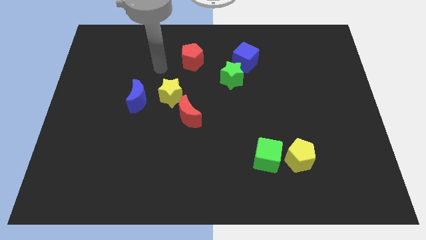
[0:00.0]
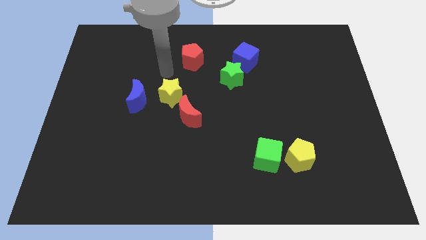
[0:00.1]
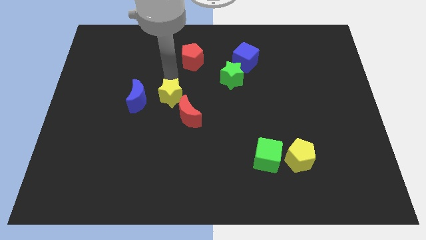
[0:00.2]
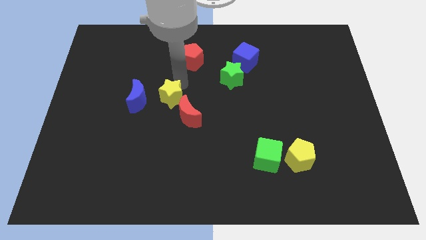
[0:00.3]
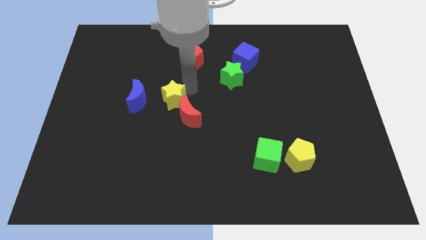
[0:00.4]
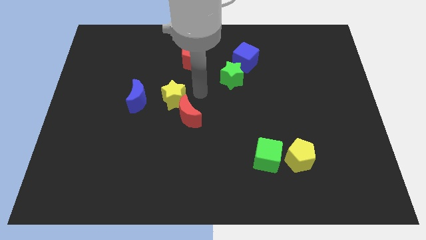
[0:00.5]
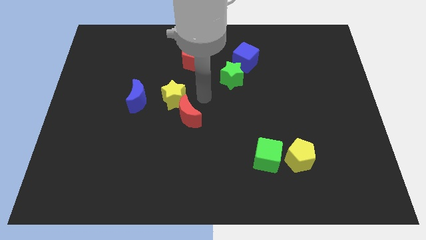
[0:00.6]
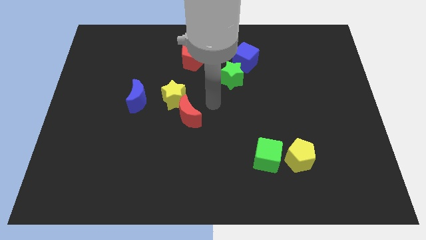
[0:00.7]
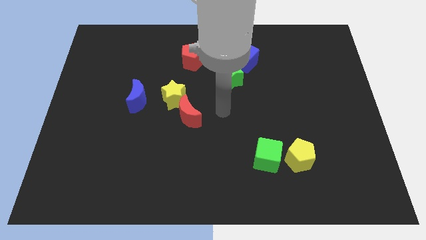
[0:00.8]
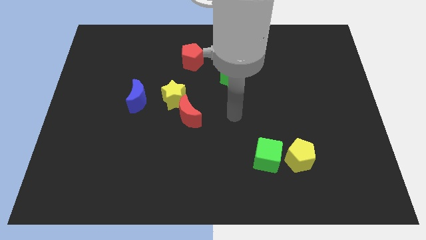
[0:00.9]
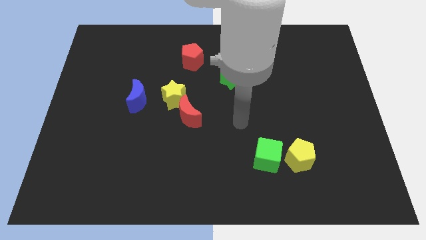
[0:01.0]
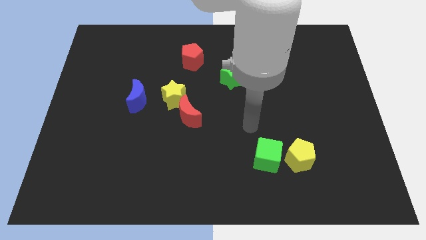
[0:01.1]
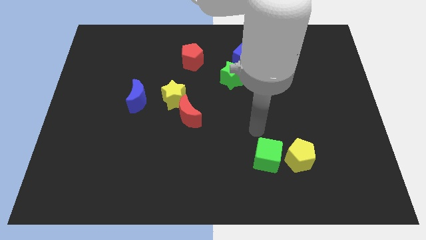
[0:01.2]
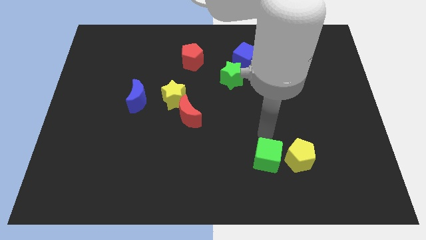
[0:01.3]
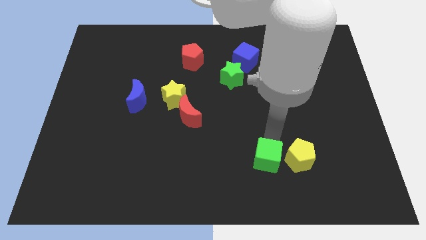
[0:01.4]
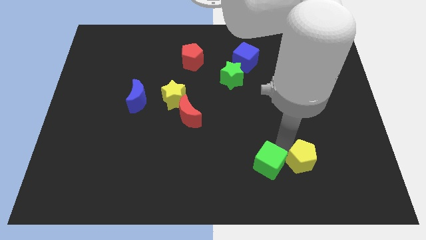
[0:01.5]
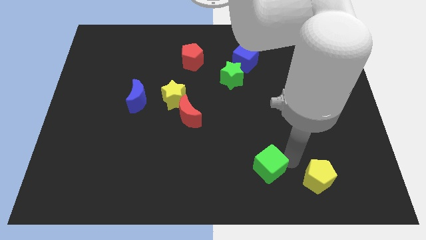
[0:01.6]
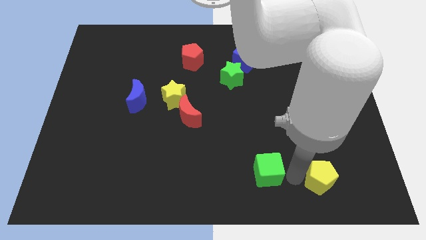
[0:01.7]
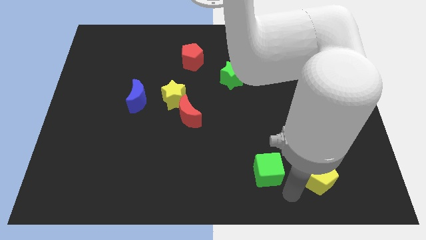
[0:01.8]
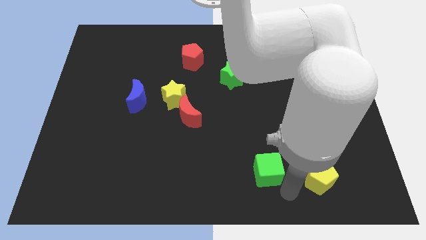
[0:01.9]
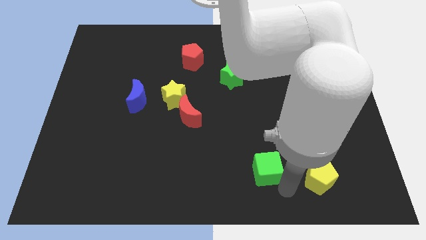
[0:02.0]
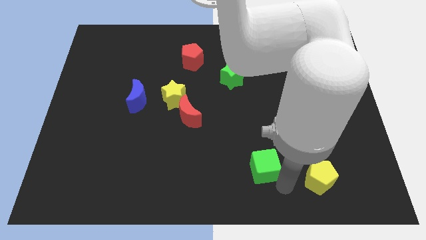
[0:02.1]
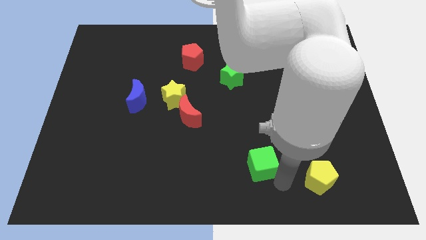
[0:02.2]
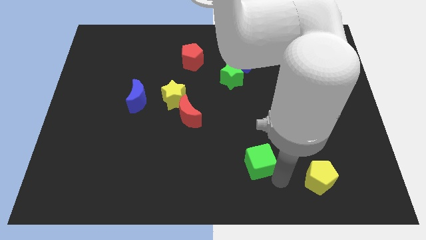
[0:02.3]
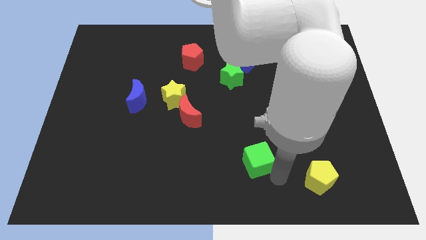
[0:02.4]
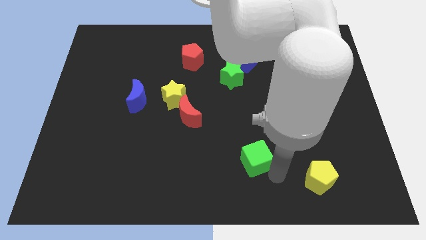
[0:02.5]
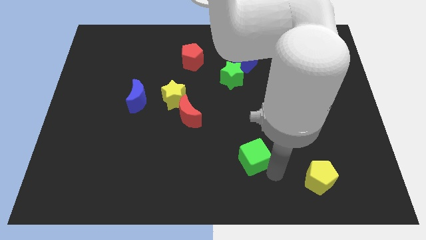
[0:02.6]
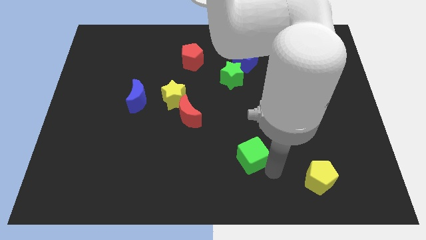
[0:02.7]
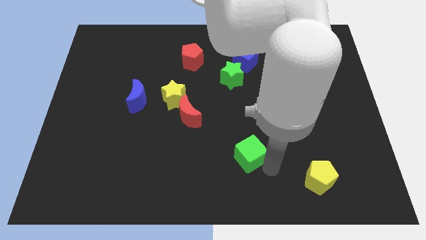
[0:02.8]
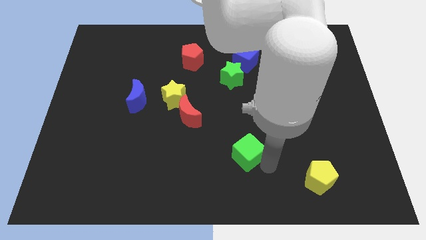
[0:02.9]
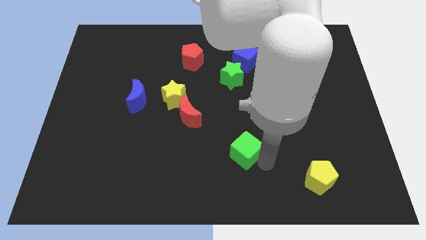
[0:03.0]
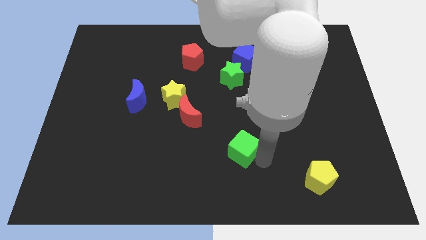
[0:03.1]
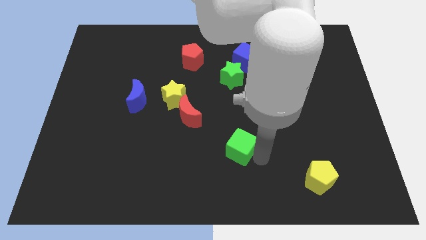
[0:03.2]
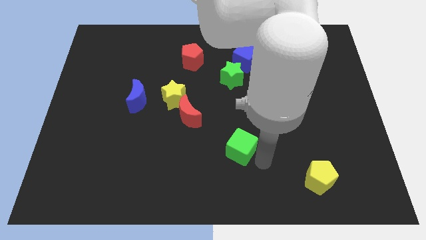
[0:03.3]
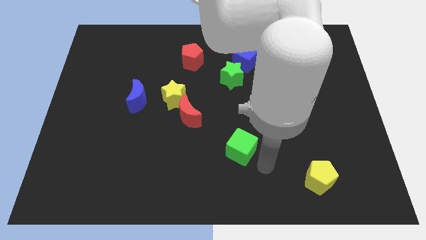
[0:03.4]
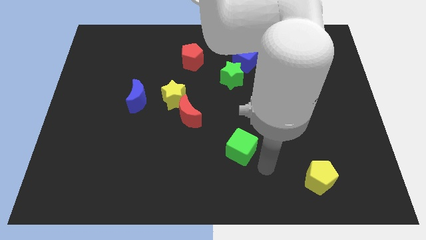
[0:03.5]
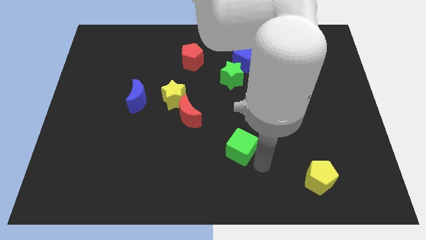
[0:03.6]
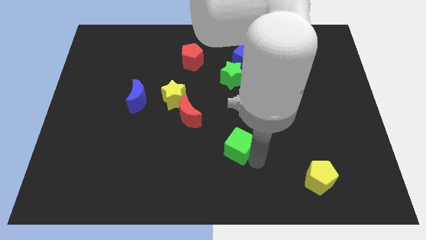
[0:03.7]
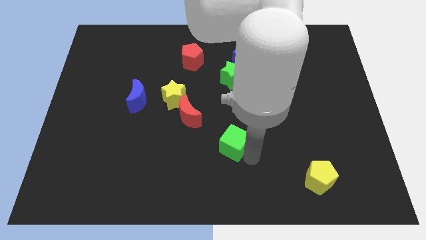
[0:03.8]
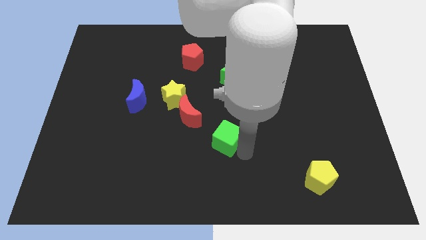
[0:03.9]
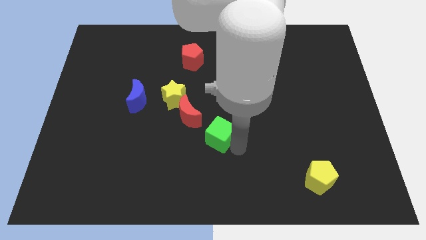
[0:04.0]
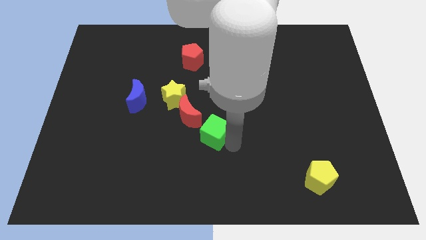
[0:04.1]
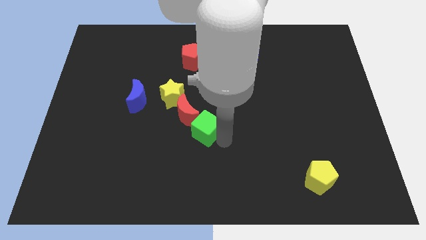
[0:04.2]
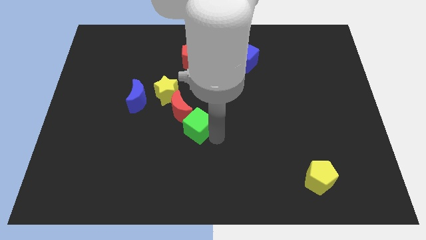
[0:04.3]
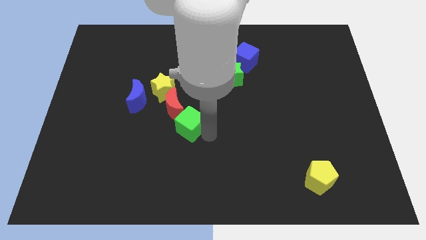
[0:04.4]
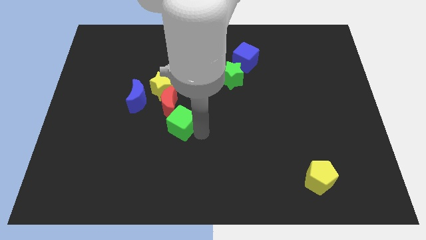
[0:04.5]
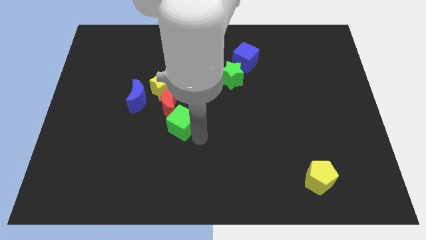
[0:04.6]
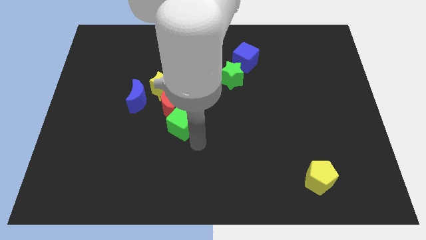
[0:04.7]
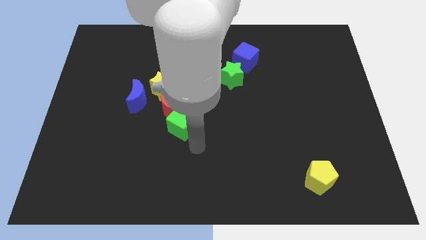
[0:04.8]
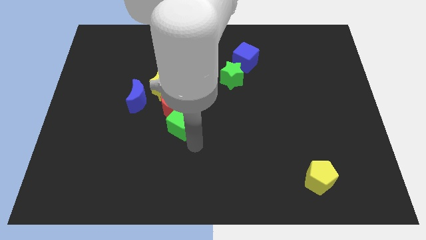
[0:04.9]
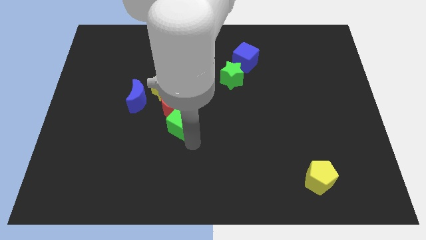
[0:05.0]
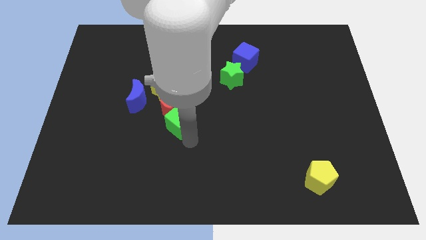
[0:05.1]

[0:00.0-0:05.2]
put the green cube to the red moon

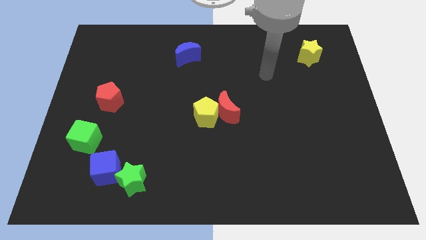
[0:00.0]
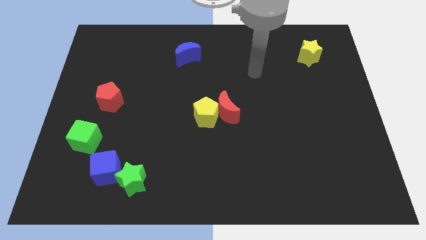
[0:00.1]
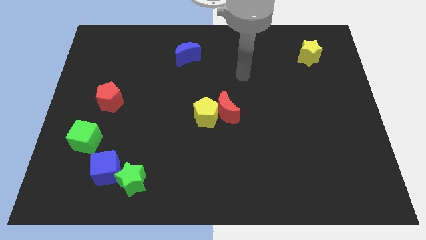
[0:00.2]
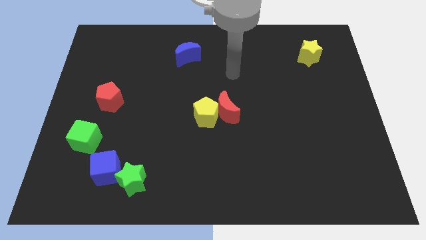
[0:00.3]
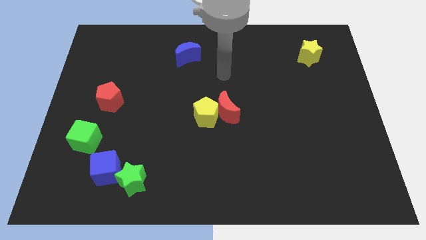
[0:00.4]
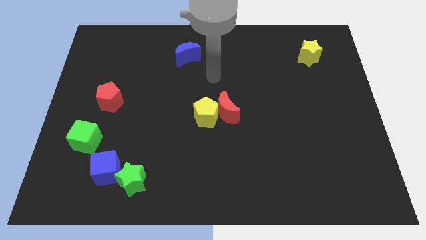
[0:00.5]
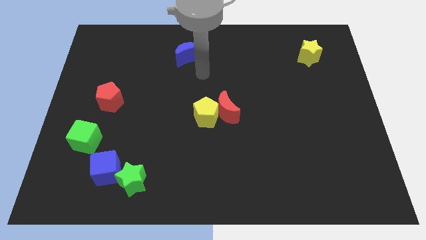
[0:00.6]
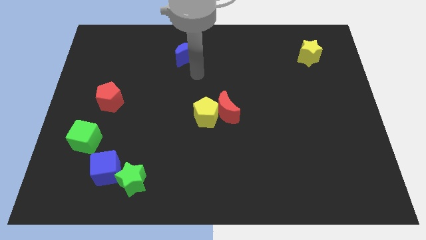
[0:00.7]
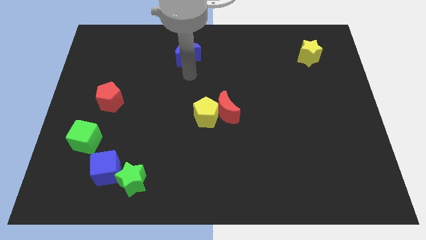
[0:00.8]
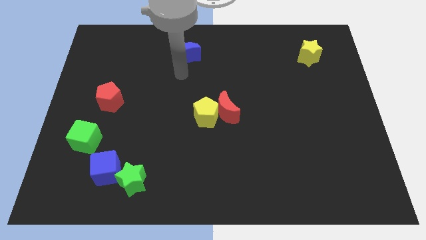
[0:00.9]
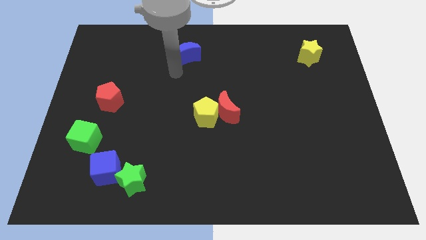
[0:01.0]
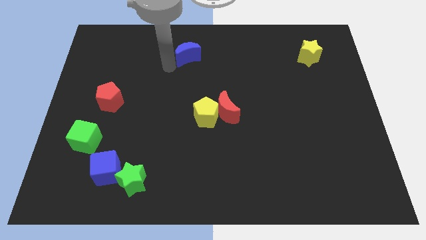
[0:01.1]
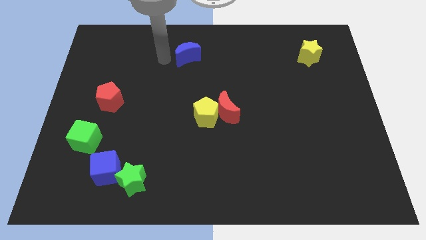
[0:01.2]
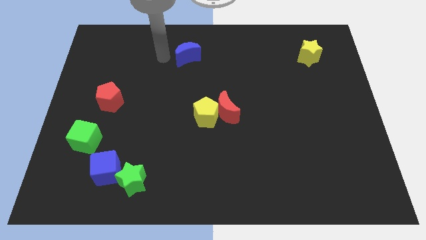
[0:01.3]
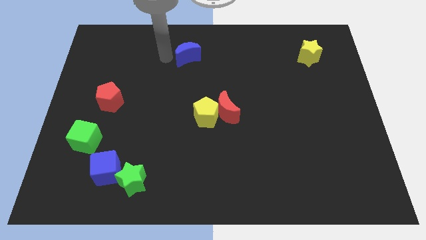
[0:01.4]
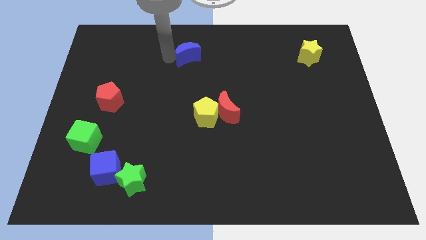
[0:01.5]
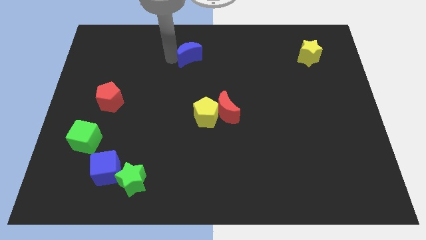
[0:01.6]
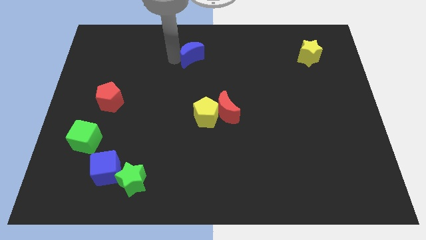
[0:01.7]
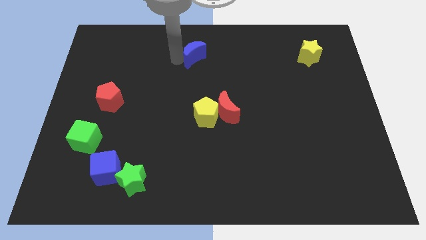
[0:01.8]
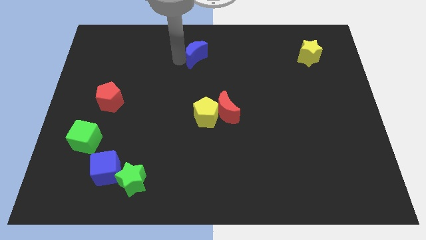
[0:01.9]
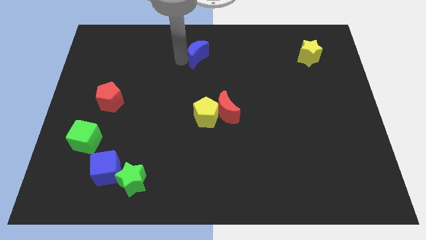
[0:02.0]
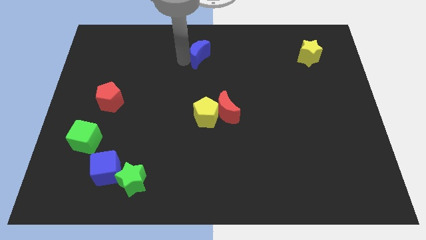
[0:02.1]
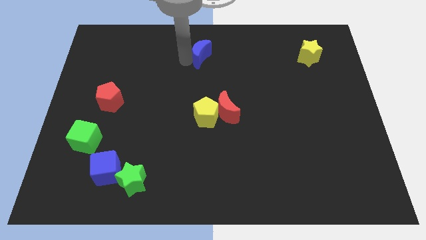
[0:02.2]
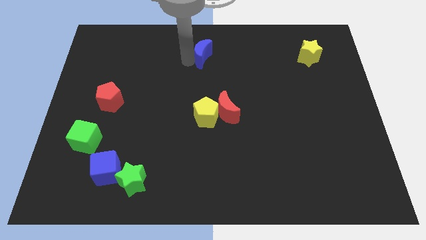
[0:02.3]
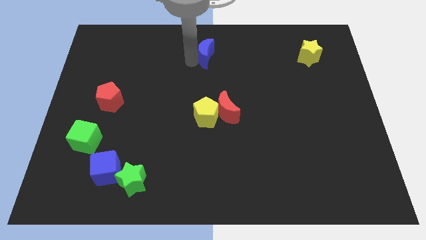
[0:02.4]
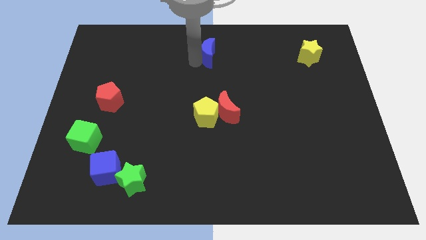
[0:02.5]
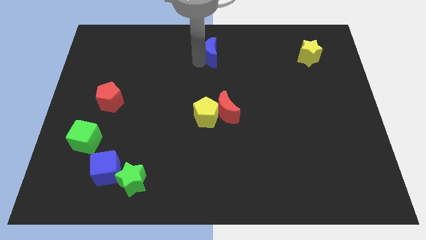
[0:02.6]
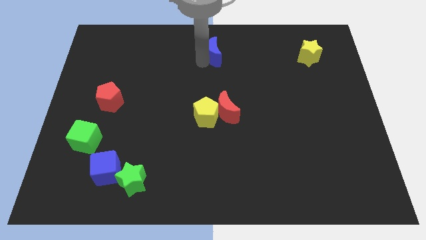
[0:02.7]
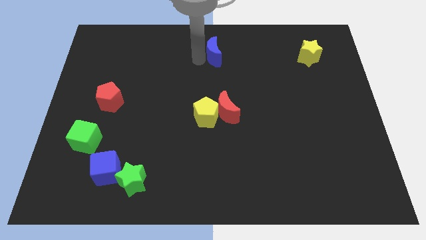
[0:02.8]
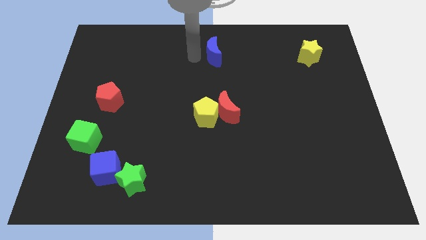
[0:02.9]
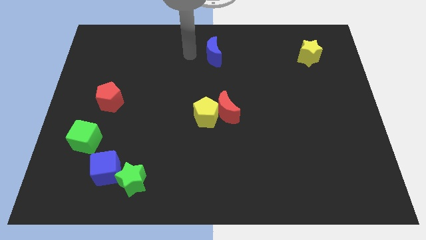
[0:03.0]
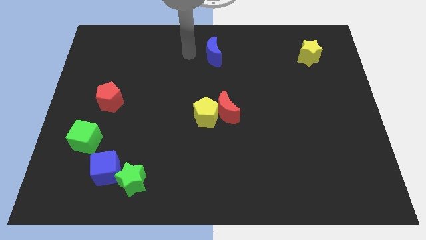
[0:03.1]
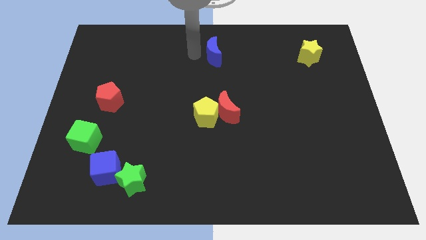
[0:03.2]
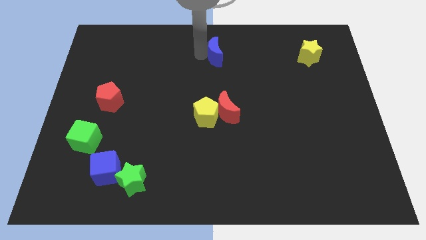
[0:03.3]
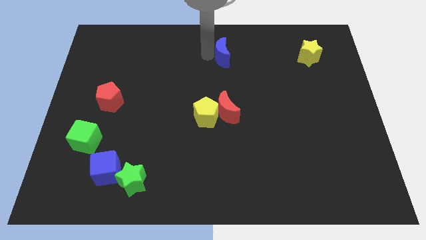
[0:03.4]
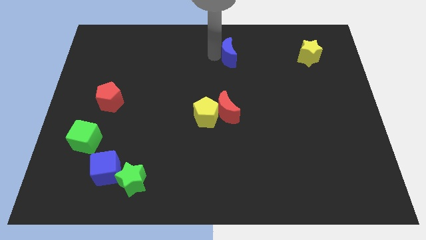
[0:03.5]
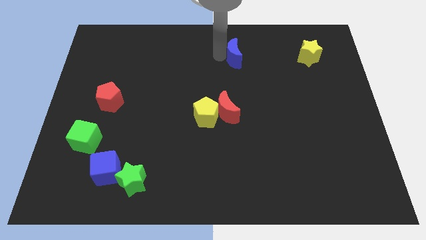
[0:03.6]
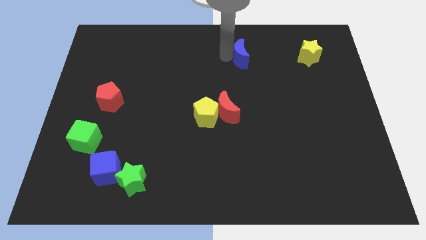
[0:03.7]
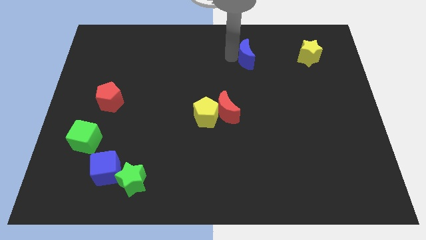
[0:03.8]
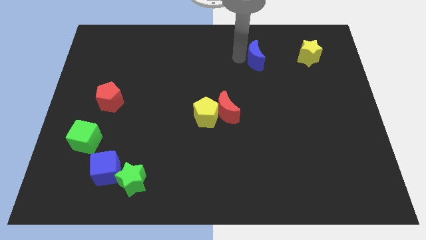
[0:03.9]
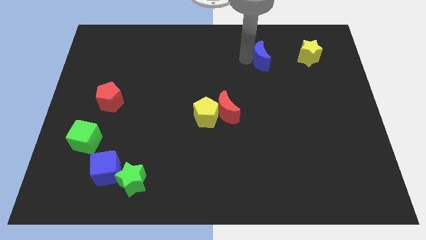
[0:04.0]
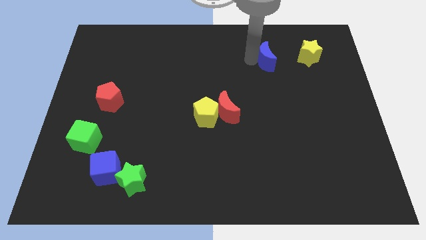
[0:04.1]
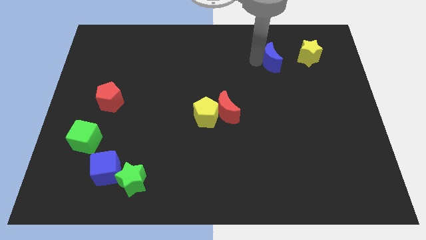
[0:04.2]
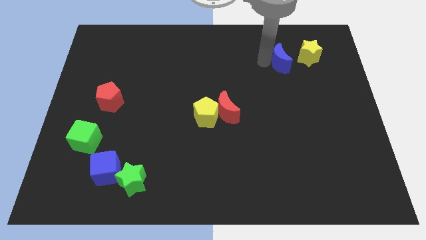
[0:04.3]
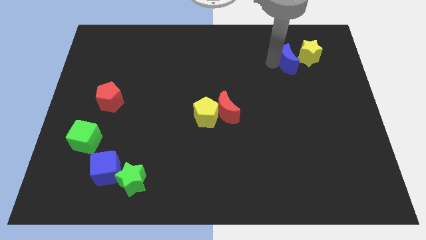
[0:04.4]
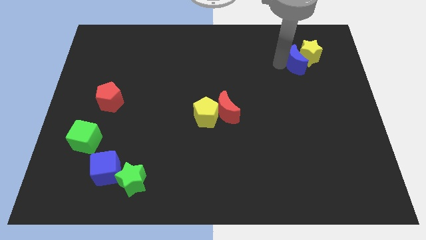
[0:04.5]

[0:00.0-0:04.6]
move the blue moon close to the yellow star
